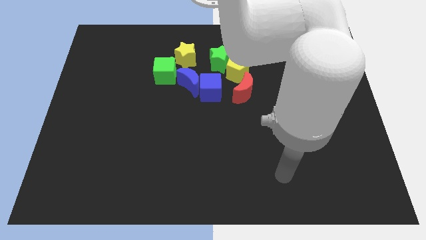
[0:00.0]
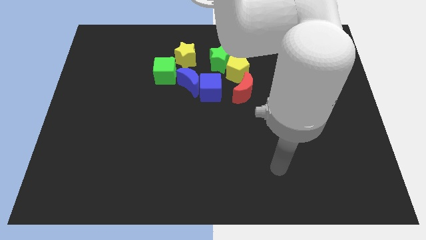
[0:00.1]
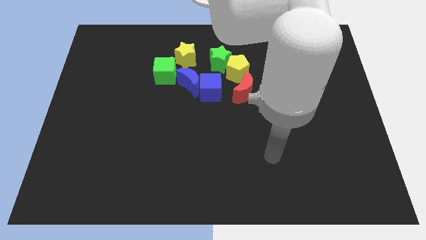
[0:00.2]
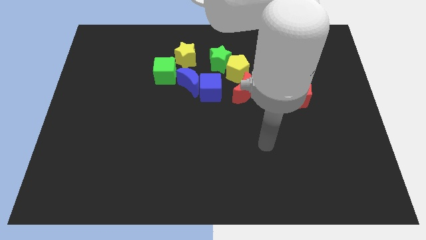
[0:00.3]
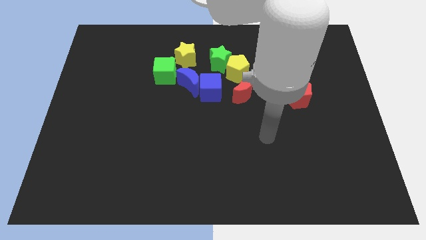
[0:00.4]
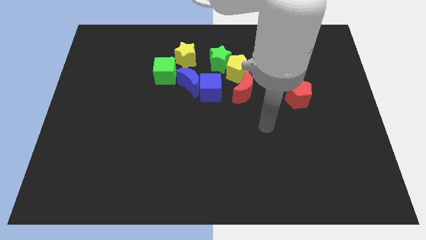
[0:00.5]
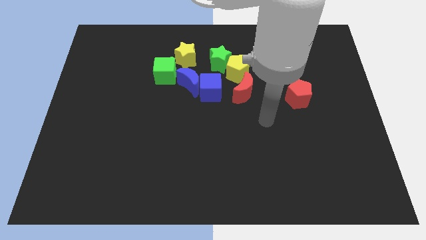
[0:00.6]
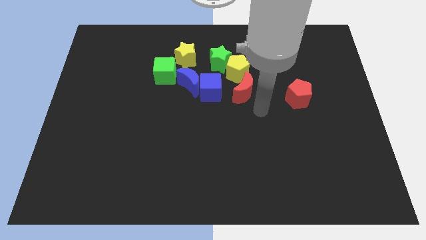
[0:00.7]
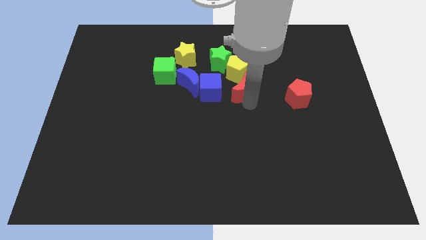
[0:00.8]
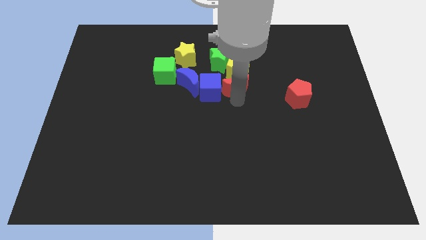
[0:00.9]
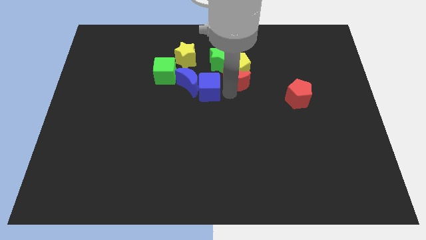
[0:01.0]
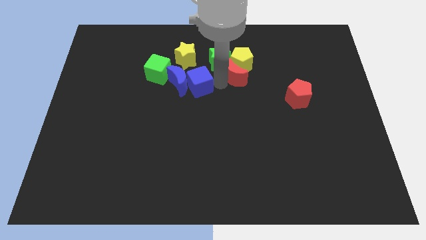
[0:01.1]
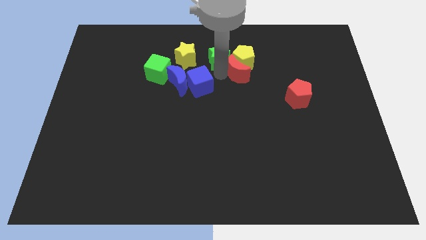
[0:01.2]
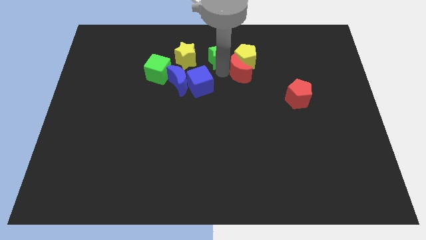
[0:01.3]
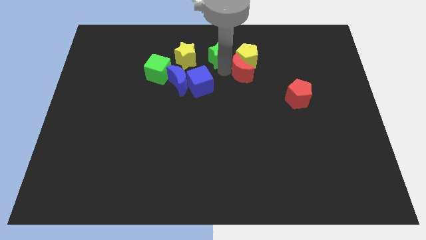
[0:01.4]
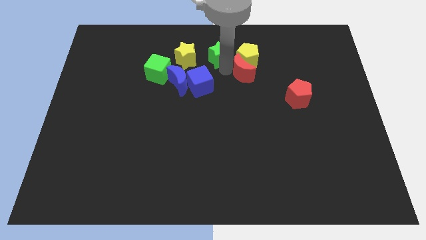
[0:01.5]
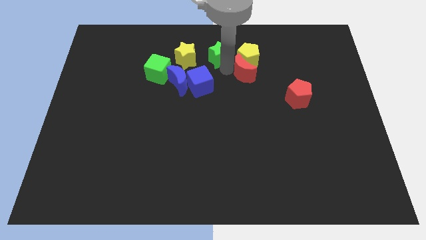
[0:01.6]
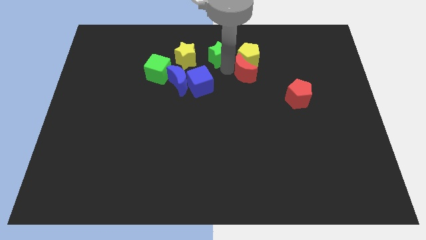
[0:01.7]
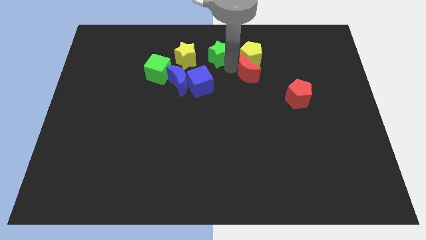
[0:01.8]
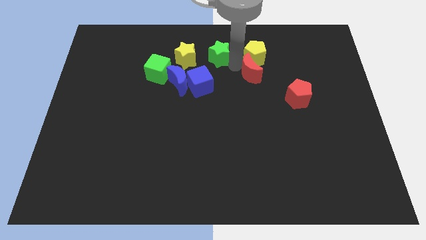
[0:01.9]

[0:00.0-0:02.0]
separate the yellow pentagon from the green star, red moon, and blue cube

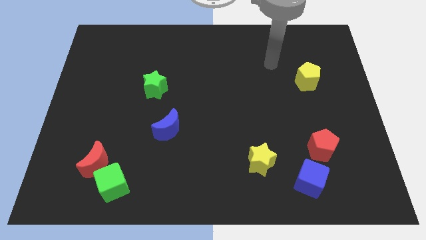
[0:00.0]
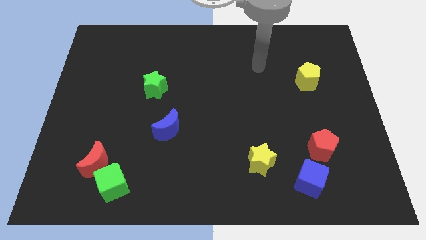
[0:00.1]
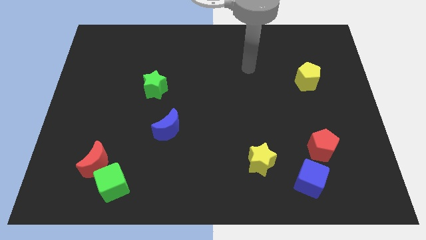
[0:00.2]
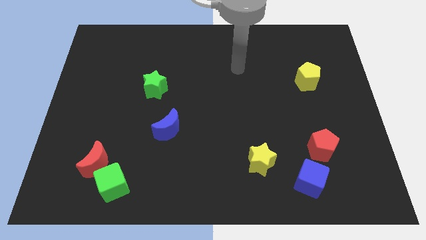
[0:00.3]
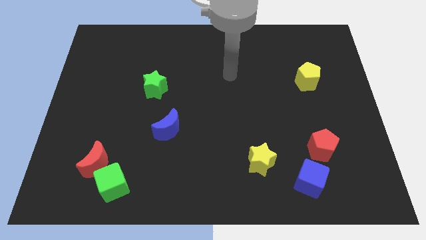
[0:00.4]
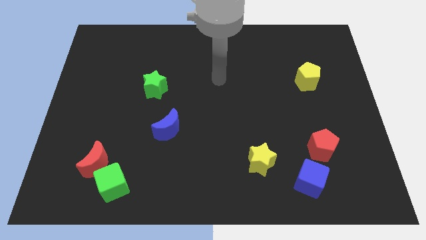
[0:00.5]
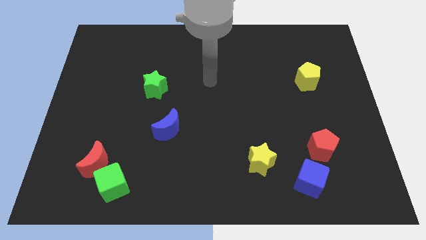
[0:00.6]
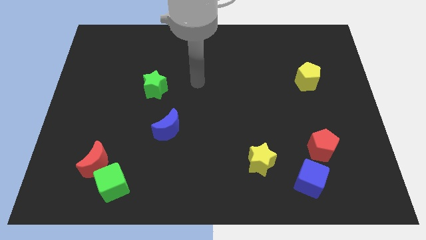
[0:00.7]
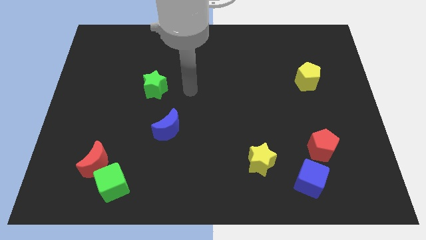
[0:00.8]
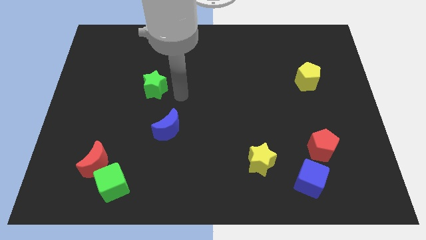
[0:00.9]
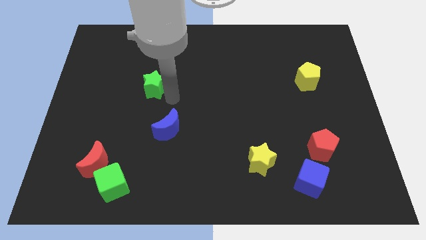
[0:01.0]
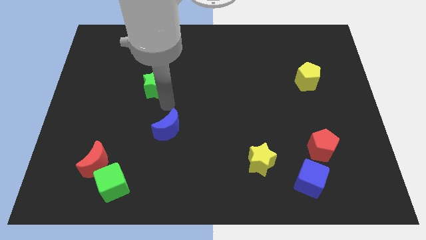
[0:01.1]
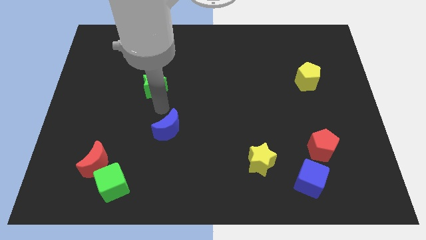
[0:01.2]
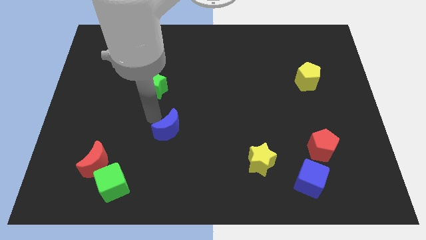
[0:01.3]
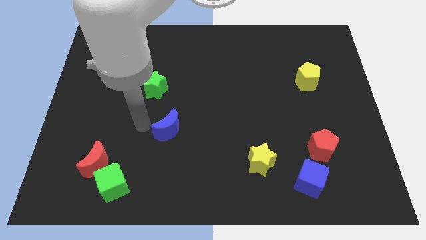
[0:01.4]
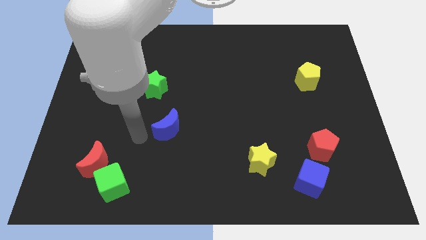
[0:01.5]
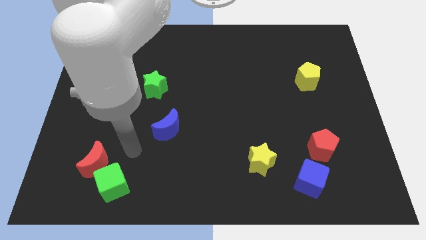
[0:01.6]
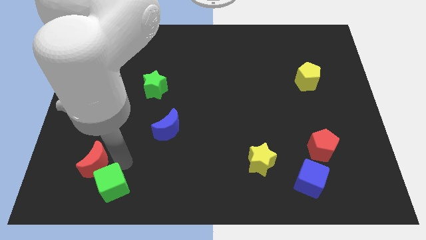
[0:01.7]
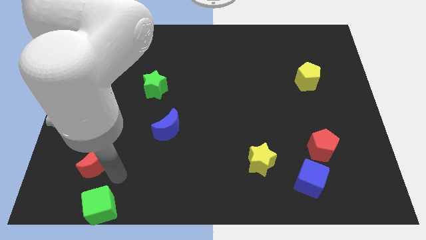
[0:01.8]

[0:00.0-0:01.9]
pull the red moon apart from the green cube

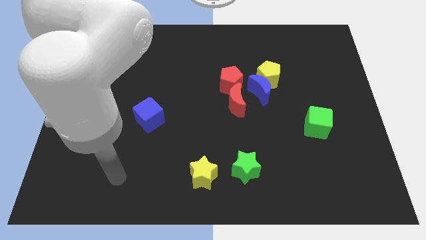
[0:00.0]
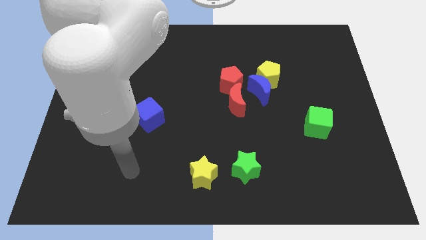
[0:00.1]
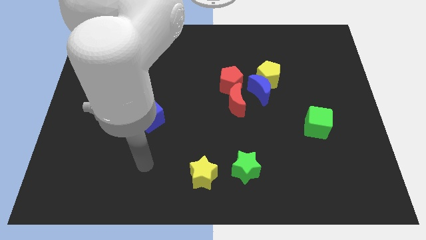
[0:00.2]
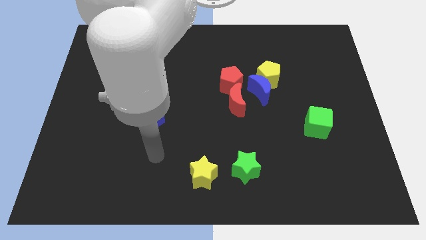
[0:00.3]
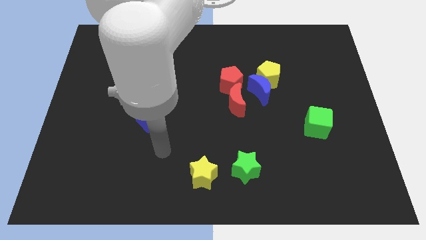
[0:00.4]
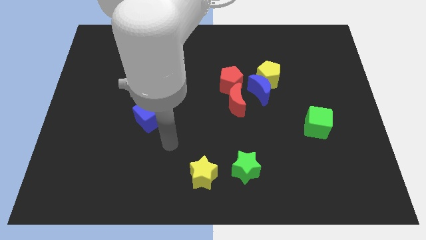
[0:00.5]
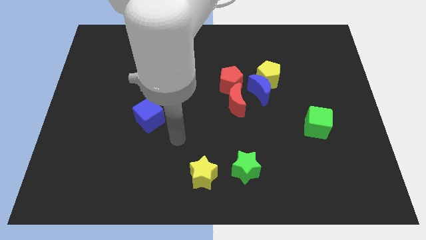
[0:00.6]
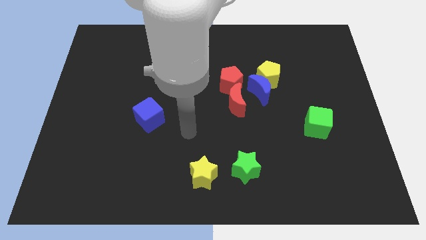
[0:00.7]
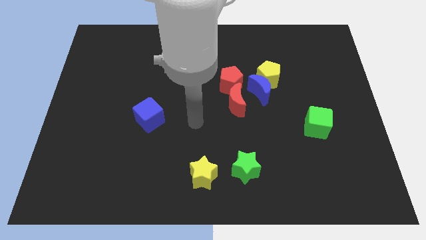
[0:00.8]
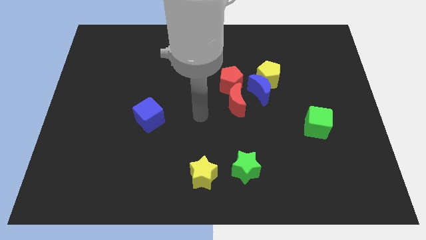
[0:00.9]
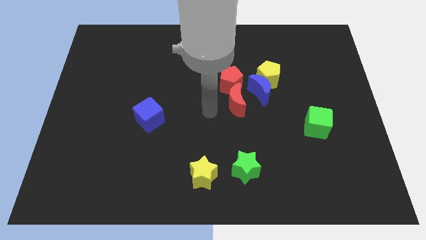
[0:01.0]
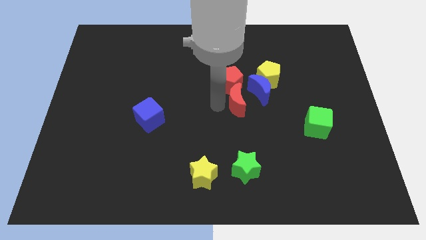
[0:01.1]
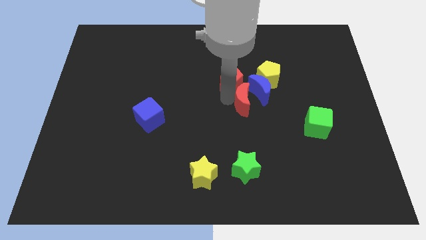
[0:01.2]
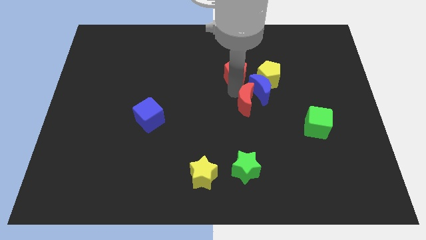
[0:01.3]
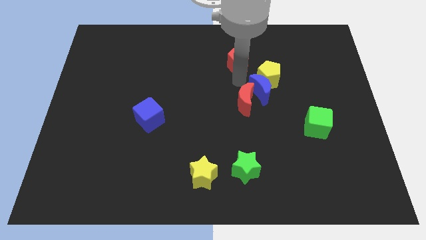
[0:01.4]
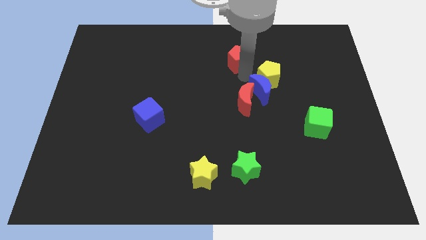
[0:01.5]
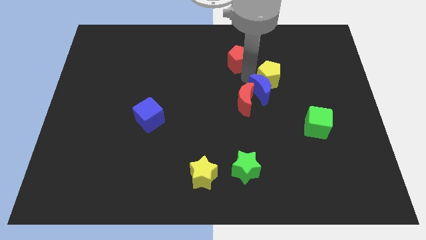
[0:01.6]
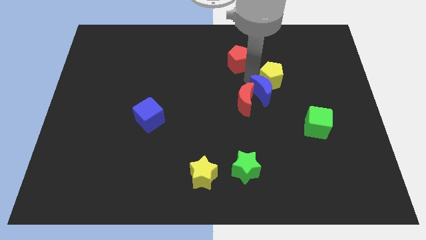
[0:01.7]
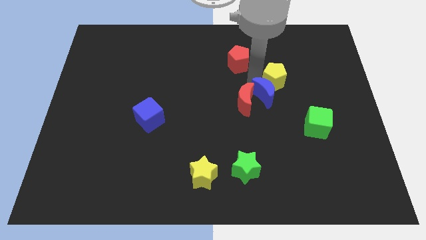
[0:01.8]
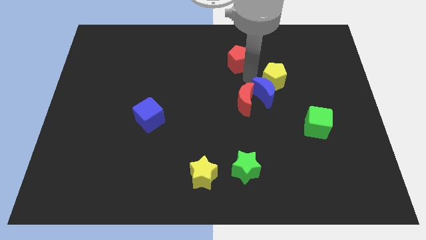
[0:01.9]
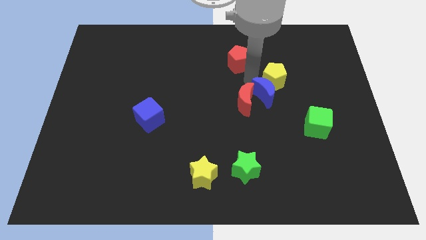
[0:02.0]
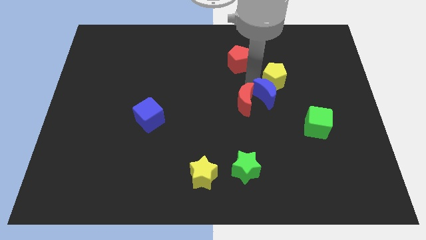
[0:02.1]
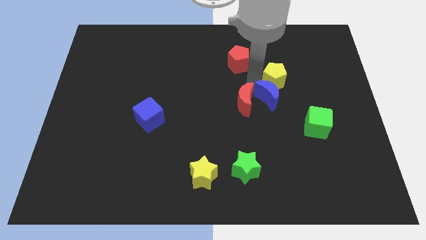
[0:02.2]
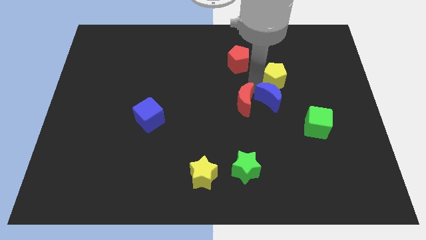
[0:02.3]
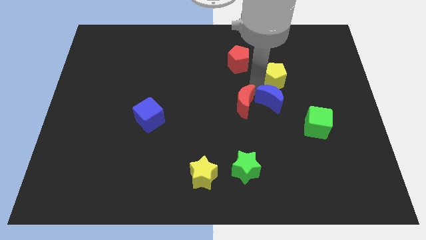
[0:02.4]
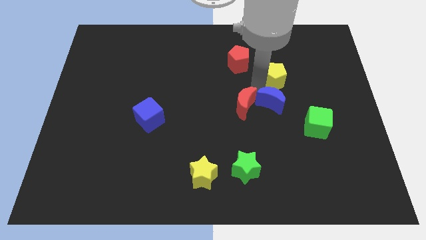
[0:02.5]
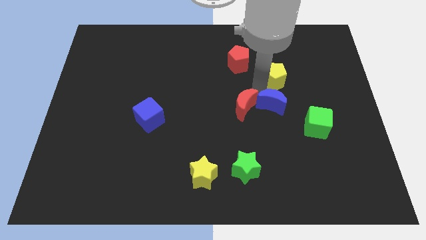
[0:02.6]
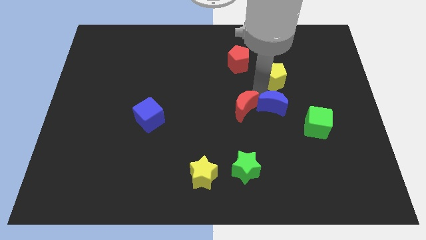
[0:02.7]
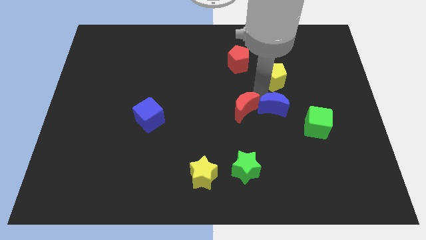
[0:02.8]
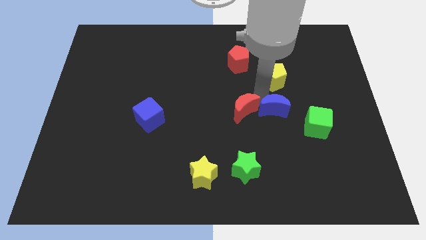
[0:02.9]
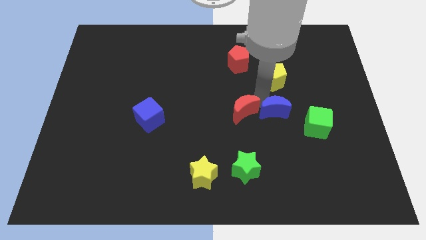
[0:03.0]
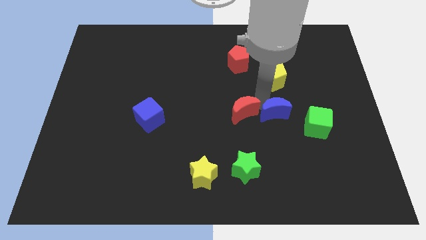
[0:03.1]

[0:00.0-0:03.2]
separate the blue moon from the yellow pentagon, red moon, and red pentagon

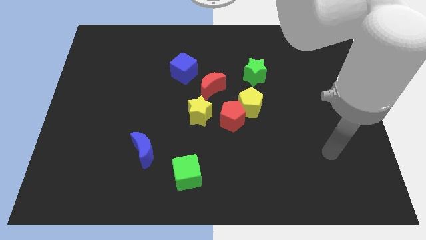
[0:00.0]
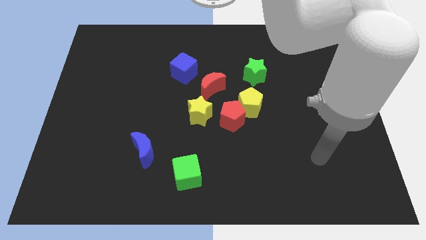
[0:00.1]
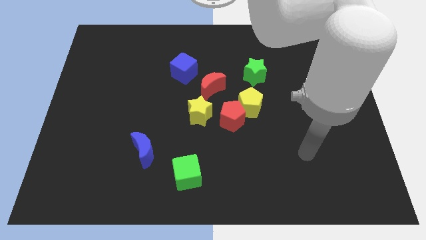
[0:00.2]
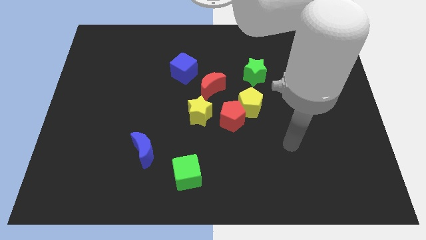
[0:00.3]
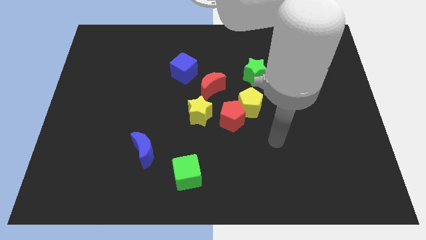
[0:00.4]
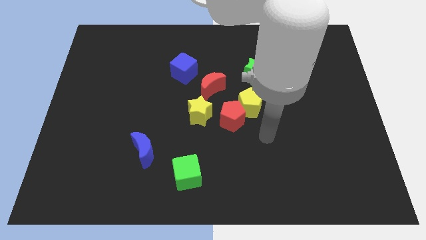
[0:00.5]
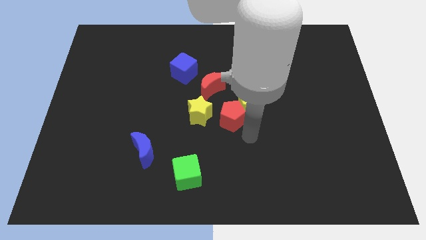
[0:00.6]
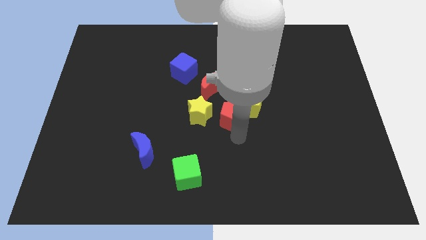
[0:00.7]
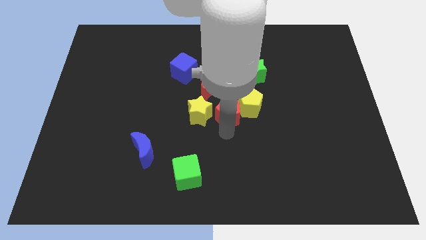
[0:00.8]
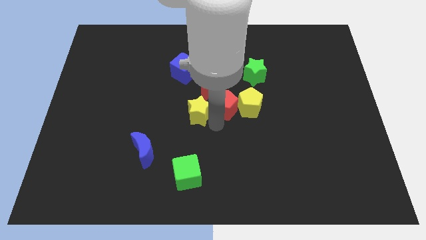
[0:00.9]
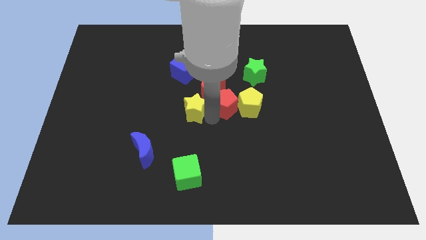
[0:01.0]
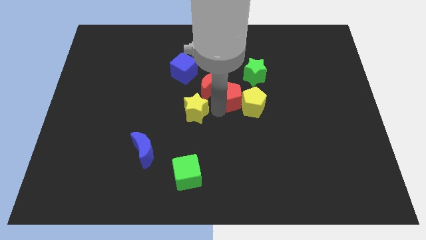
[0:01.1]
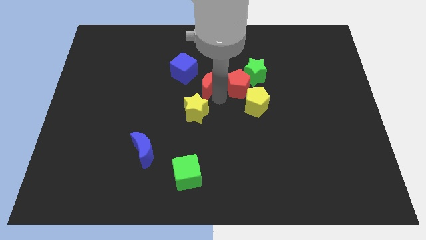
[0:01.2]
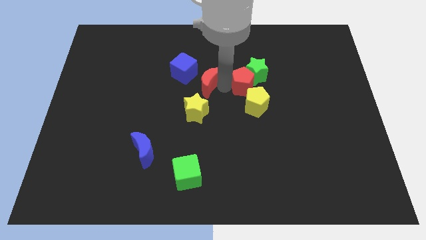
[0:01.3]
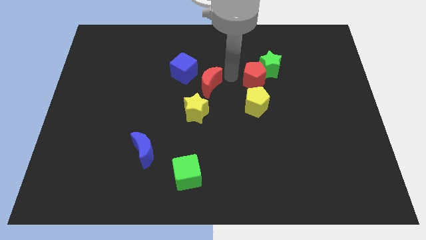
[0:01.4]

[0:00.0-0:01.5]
separate the red pentagon from the yellow pentagon and yellow star

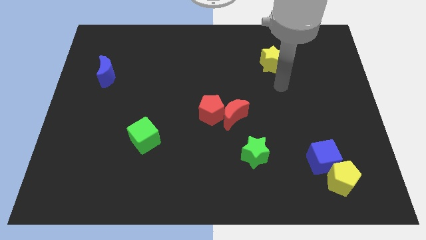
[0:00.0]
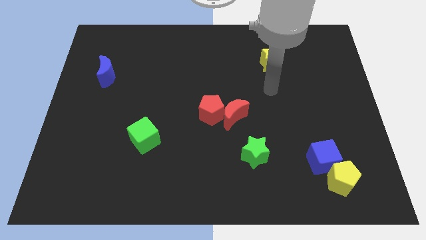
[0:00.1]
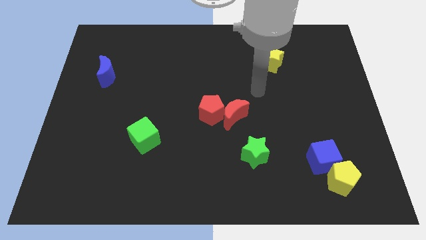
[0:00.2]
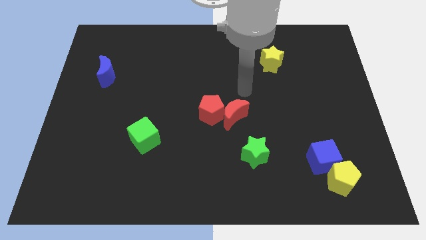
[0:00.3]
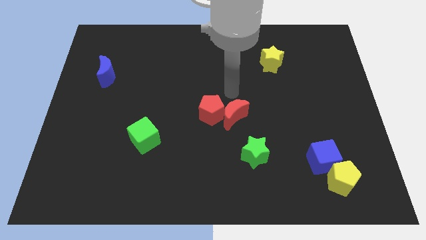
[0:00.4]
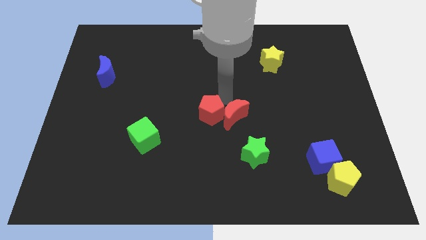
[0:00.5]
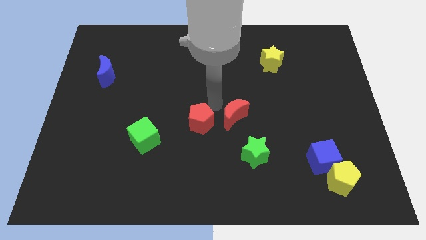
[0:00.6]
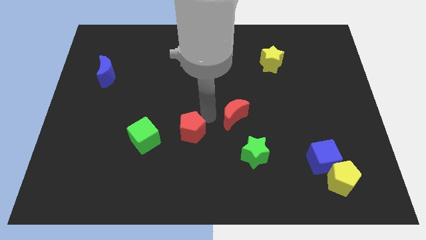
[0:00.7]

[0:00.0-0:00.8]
pull the red moon apart from the red pentagon
